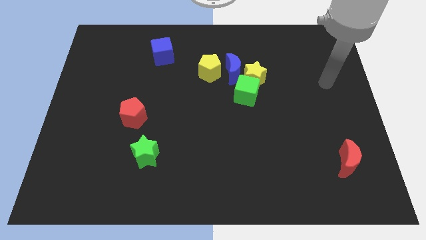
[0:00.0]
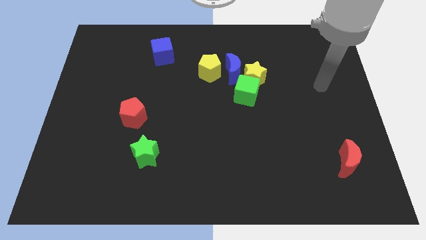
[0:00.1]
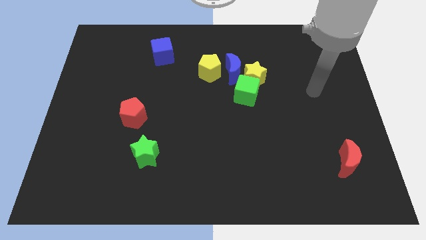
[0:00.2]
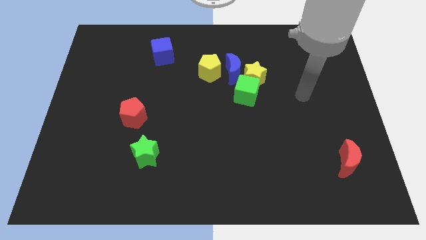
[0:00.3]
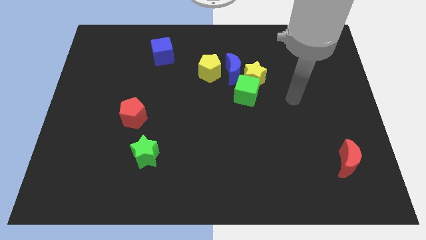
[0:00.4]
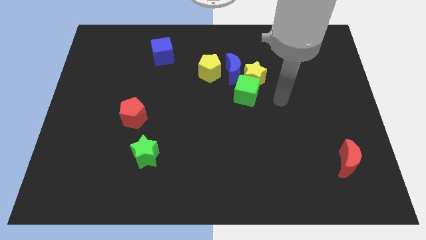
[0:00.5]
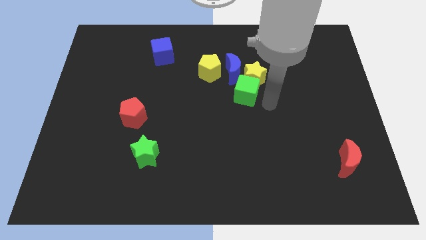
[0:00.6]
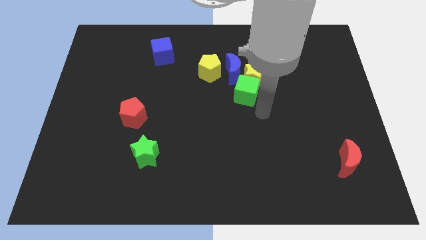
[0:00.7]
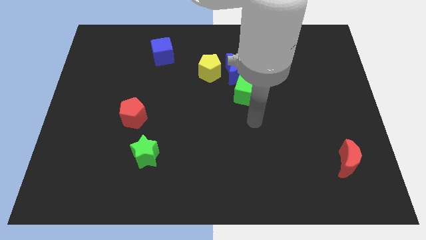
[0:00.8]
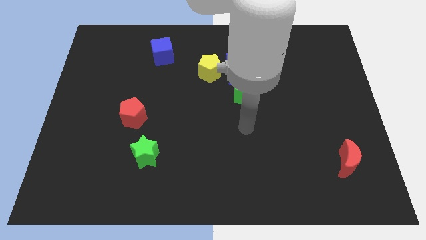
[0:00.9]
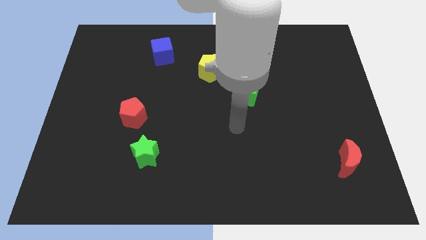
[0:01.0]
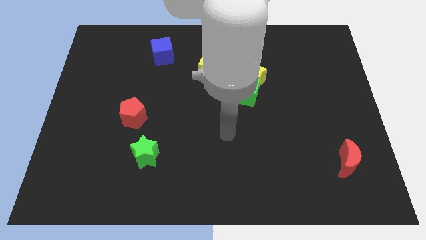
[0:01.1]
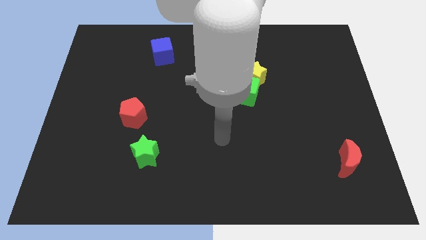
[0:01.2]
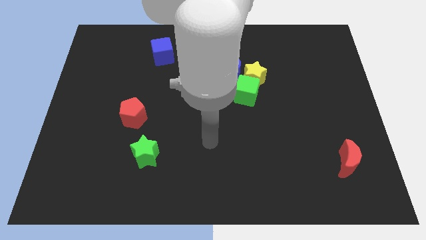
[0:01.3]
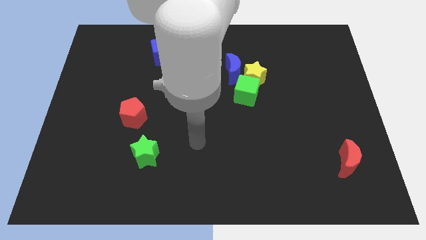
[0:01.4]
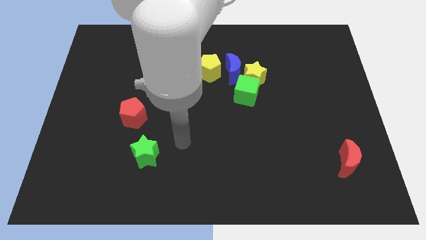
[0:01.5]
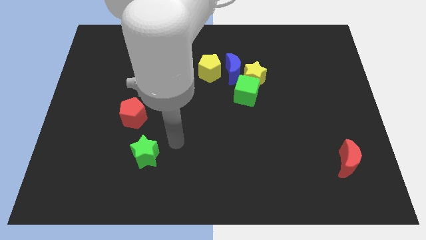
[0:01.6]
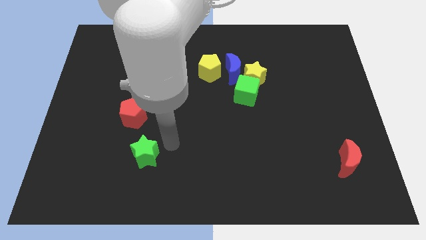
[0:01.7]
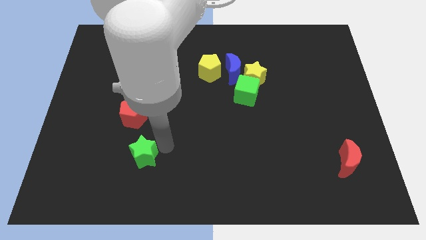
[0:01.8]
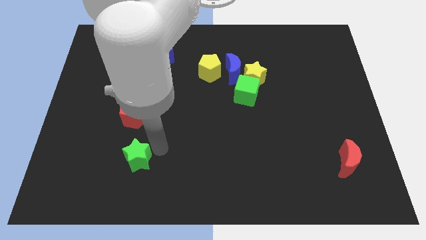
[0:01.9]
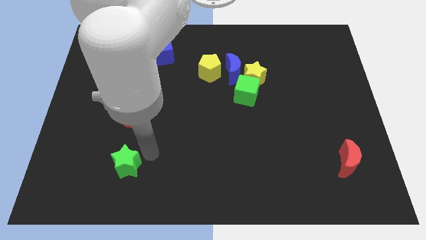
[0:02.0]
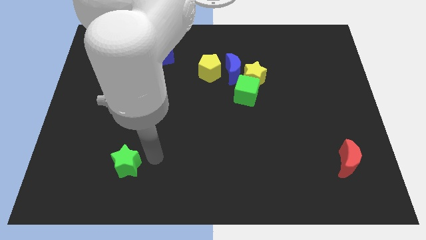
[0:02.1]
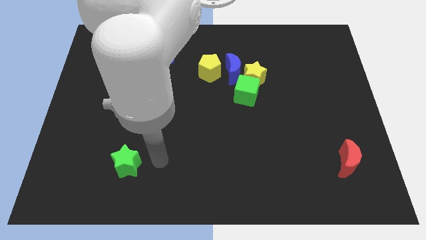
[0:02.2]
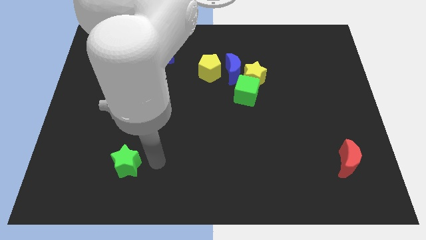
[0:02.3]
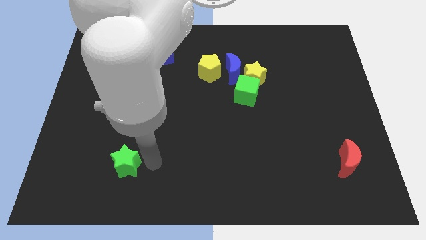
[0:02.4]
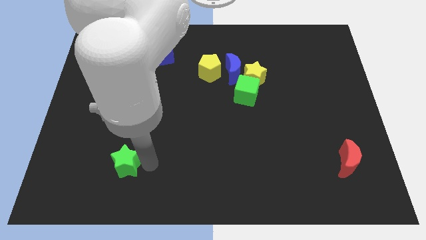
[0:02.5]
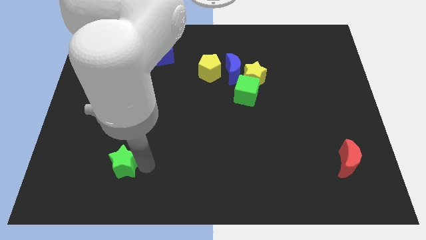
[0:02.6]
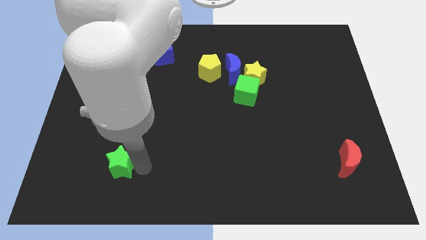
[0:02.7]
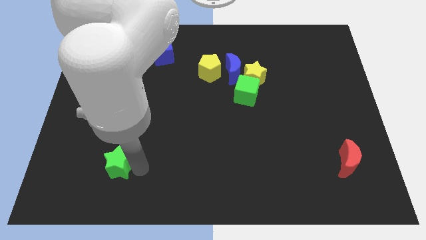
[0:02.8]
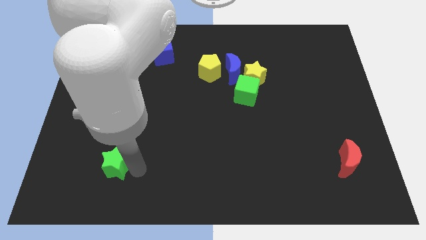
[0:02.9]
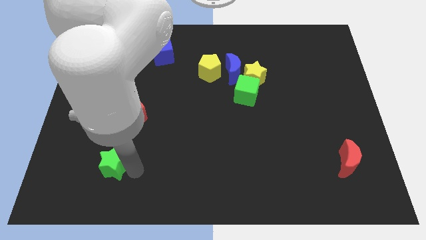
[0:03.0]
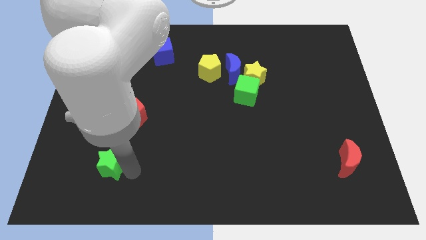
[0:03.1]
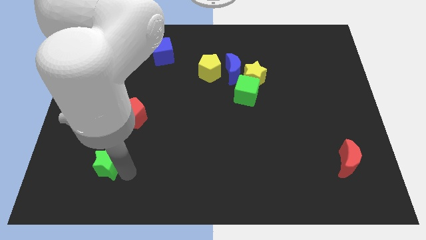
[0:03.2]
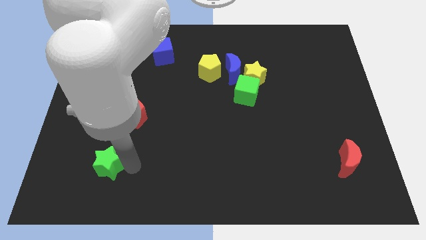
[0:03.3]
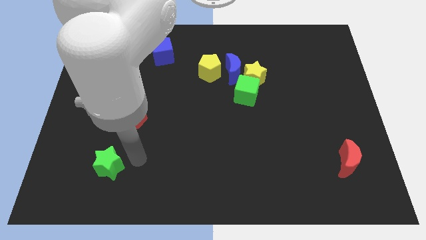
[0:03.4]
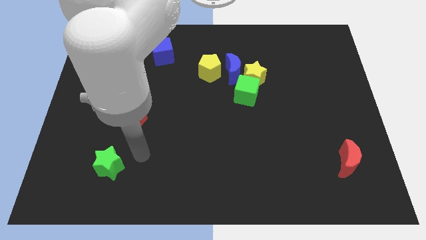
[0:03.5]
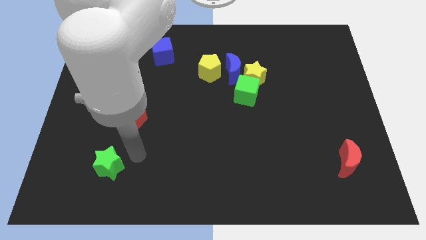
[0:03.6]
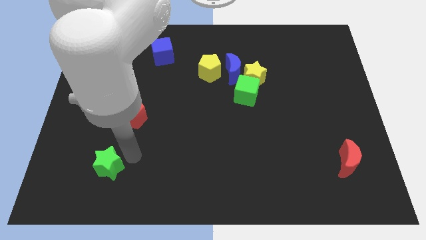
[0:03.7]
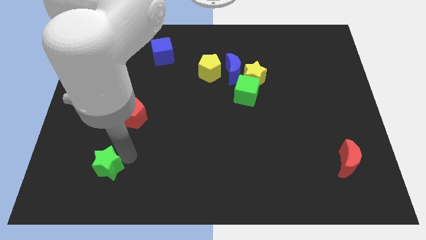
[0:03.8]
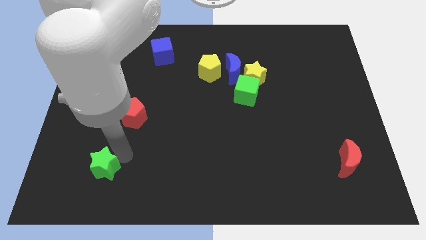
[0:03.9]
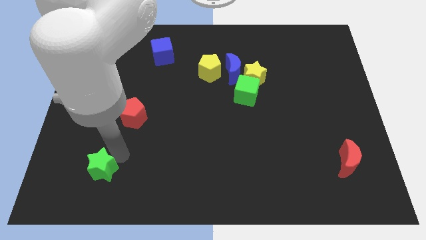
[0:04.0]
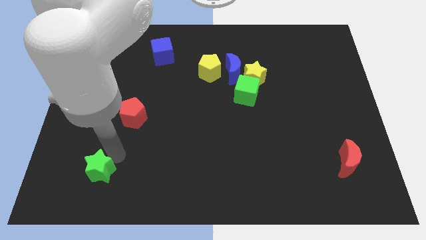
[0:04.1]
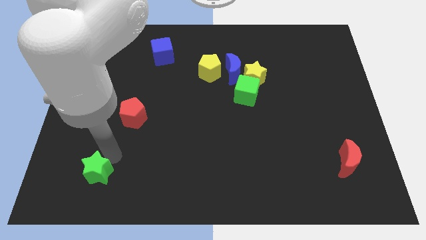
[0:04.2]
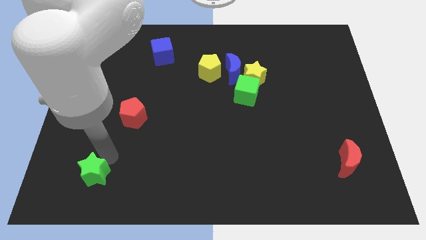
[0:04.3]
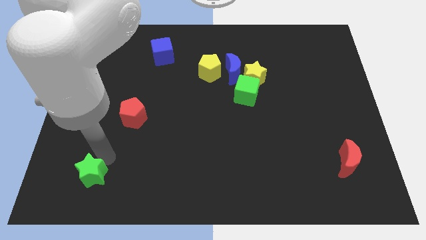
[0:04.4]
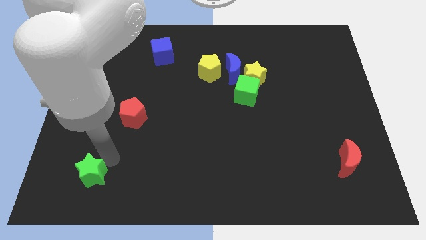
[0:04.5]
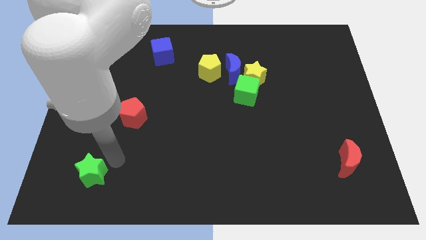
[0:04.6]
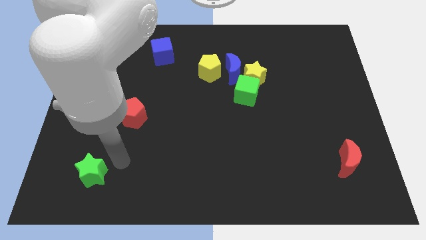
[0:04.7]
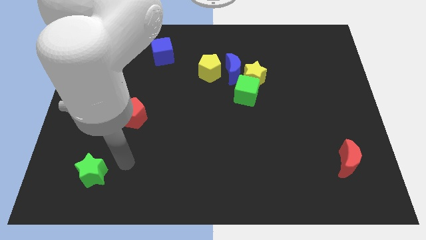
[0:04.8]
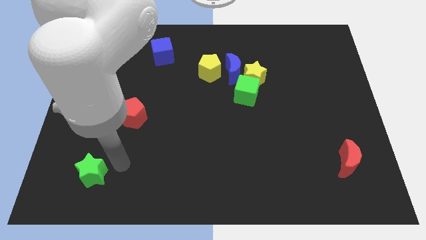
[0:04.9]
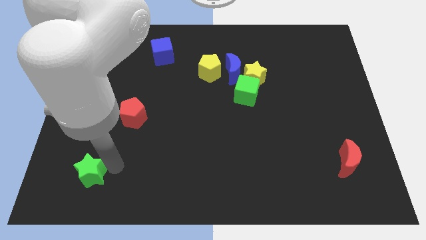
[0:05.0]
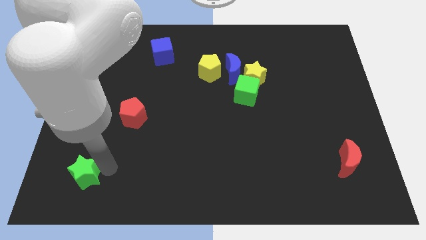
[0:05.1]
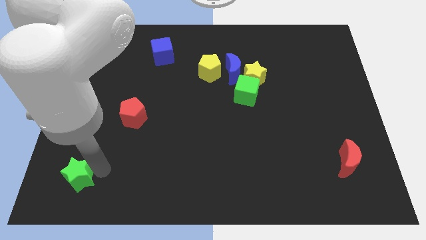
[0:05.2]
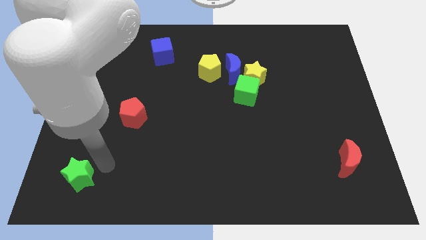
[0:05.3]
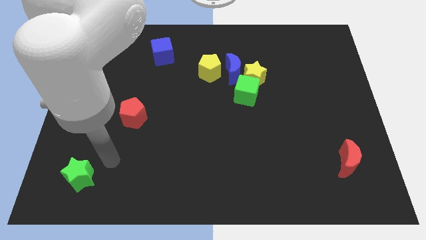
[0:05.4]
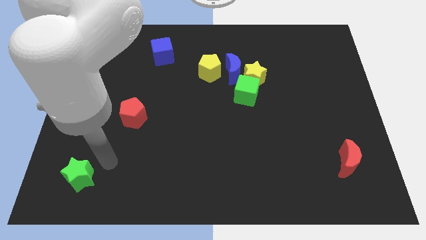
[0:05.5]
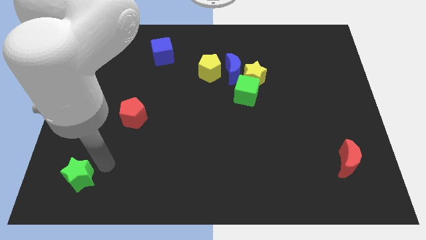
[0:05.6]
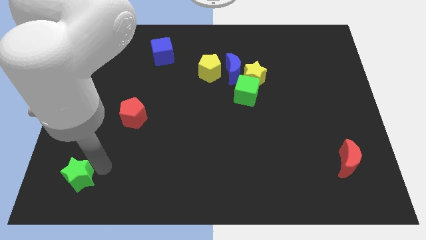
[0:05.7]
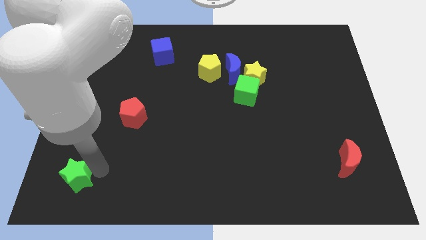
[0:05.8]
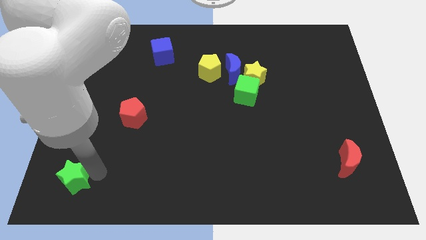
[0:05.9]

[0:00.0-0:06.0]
push the green star to the bottom left

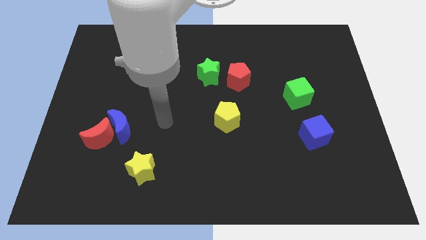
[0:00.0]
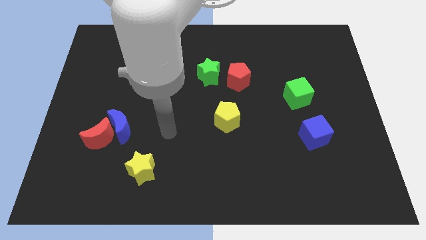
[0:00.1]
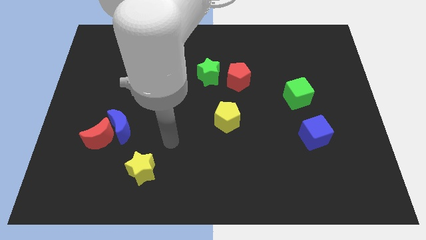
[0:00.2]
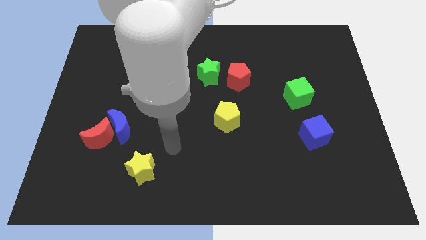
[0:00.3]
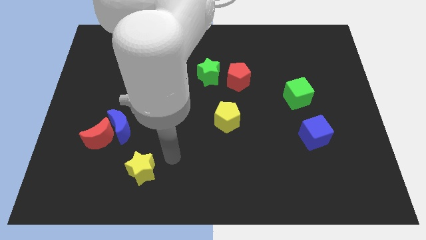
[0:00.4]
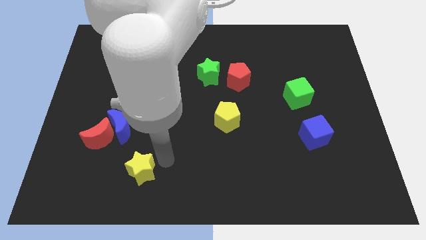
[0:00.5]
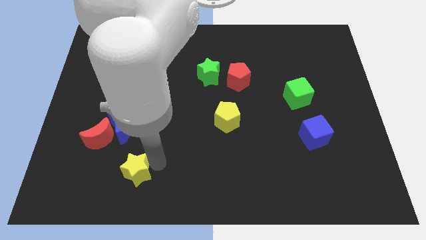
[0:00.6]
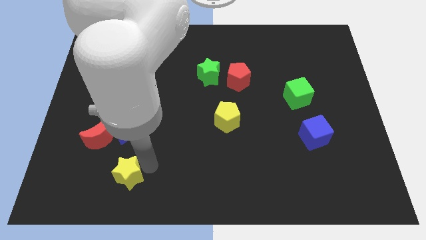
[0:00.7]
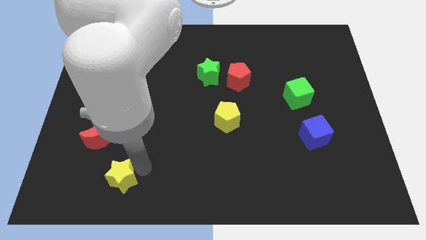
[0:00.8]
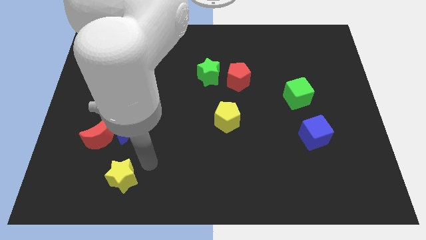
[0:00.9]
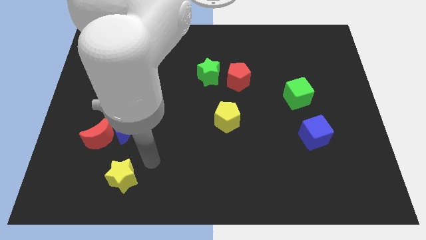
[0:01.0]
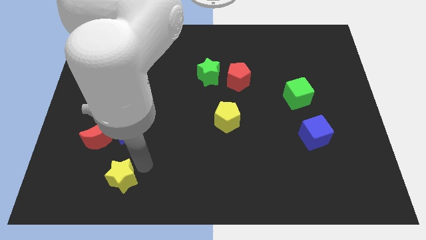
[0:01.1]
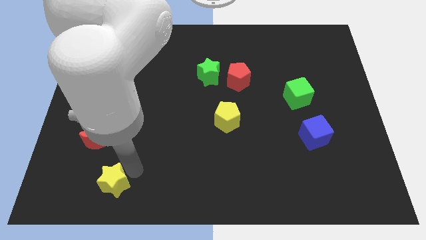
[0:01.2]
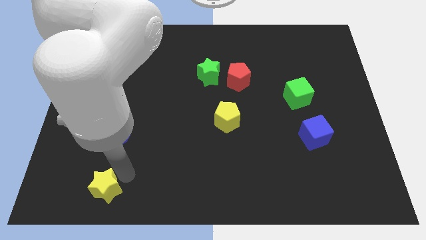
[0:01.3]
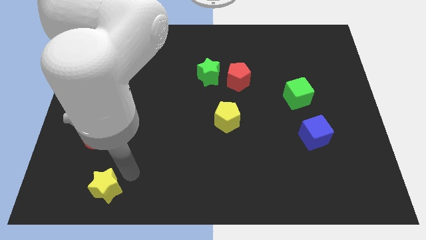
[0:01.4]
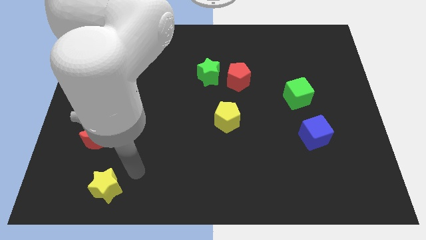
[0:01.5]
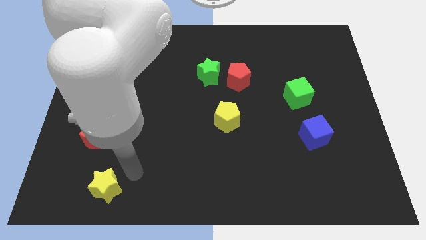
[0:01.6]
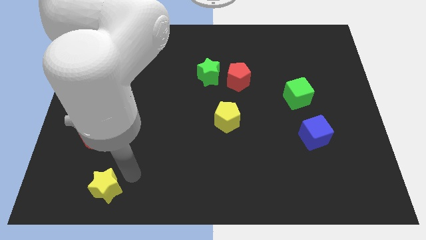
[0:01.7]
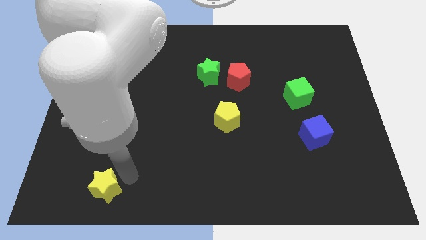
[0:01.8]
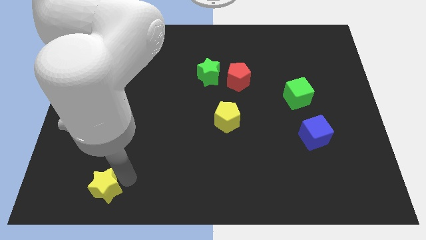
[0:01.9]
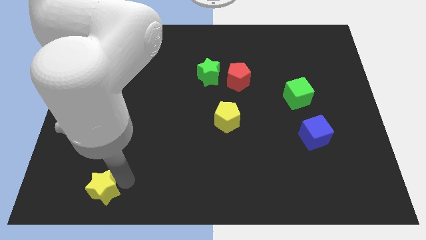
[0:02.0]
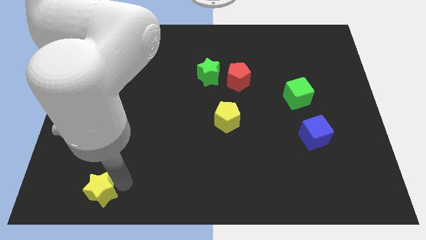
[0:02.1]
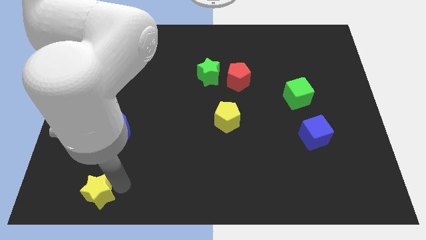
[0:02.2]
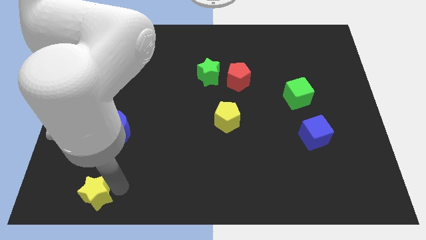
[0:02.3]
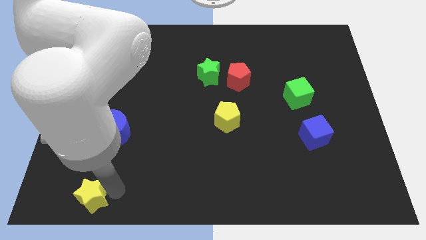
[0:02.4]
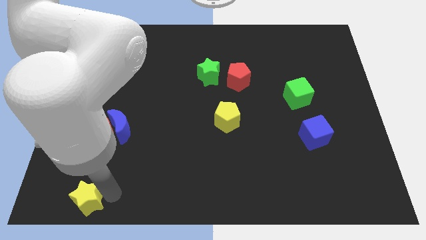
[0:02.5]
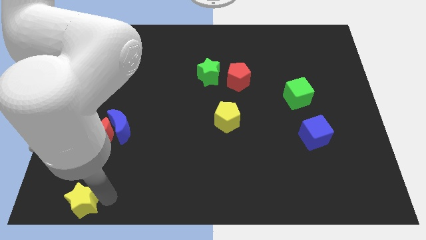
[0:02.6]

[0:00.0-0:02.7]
put the yellow star to the bottom left corner
